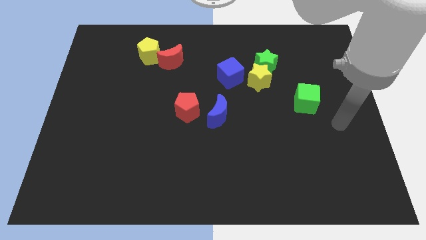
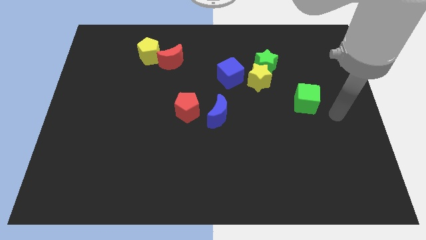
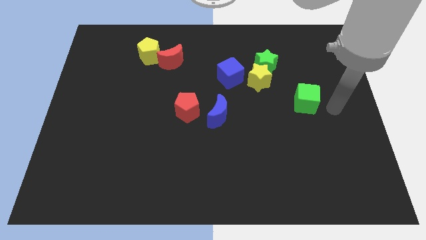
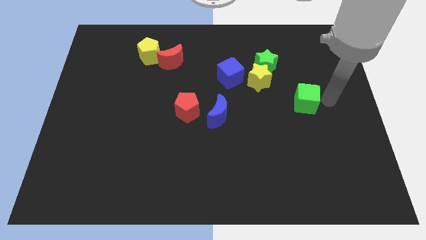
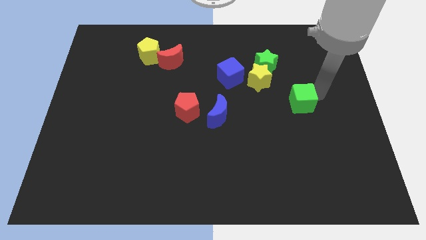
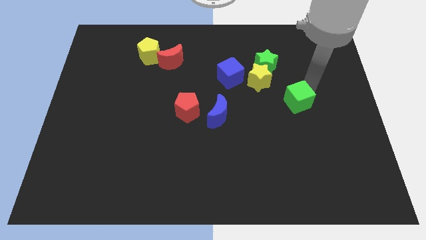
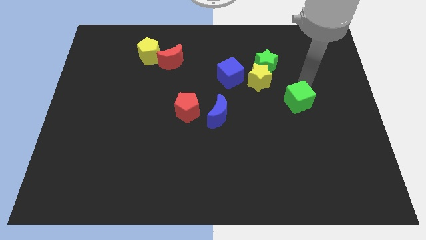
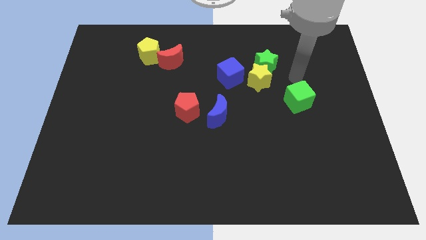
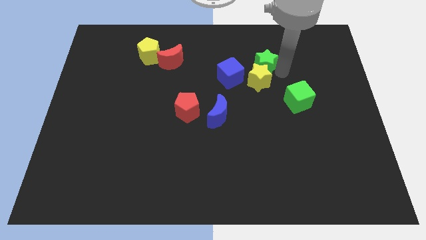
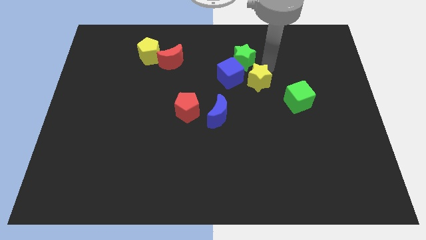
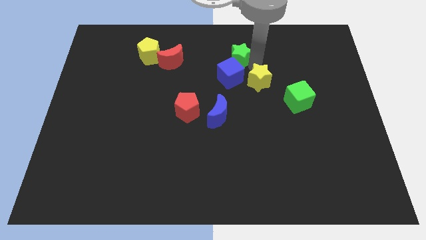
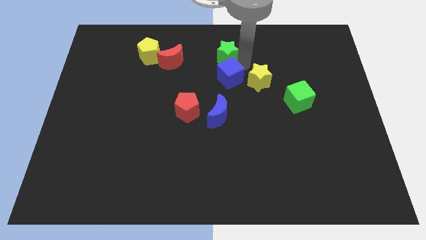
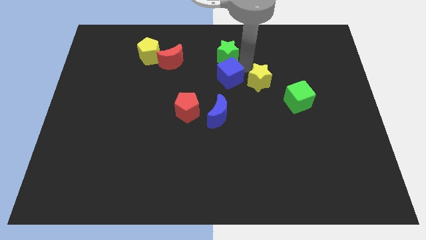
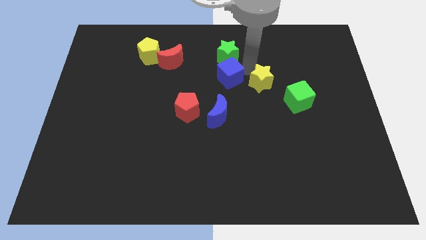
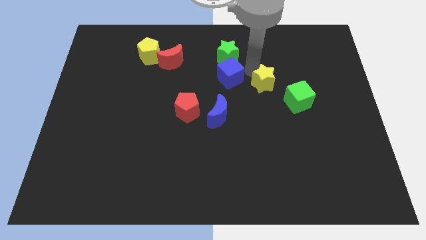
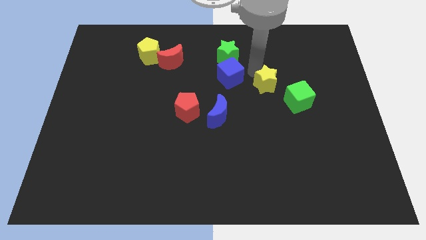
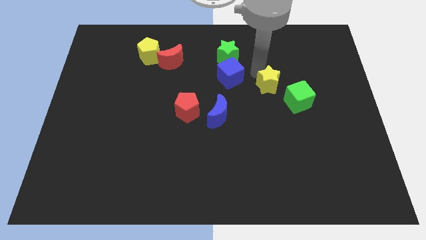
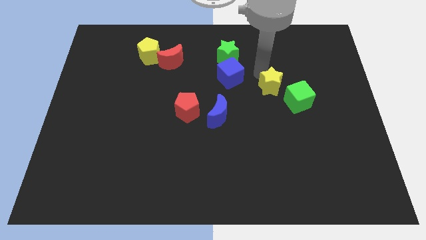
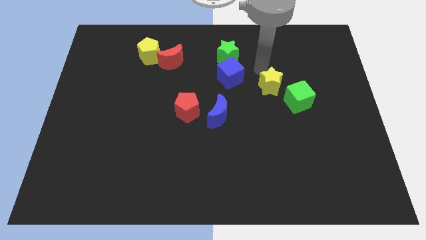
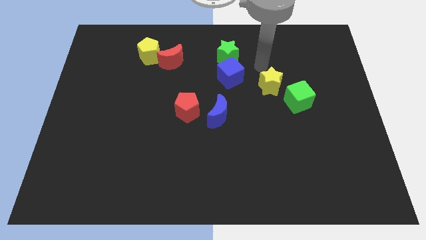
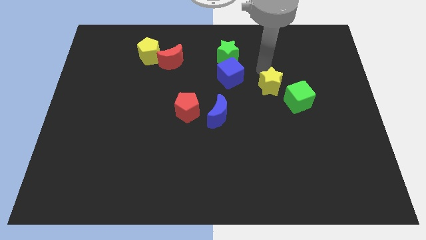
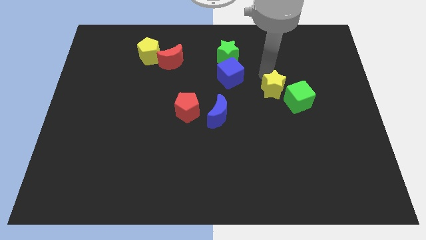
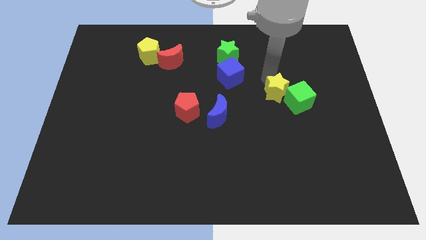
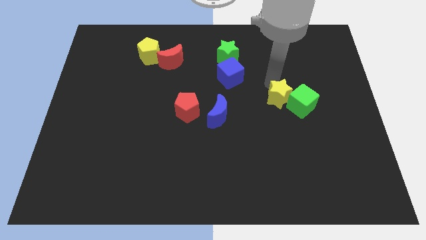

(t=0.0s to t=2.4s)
slide the yellow star a little bit diagonally downwards and right

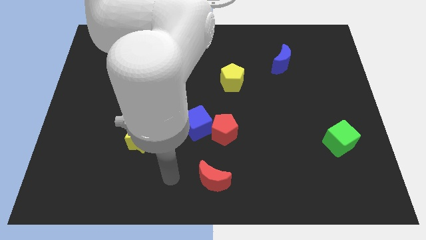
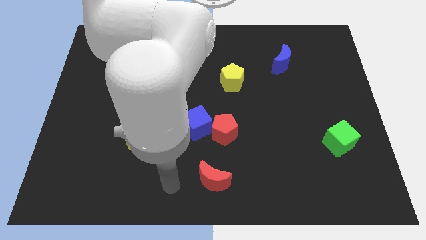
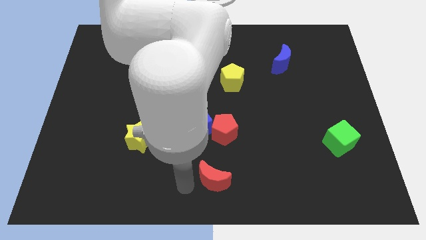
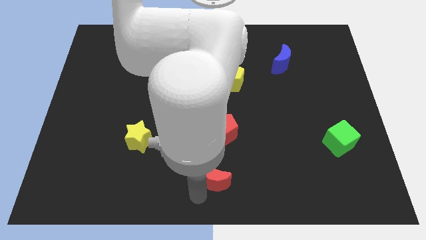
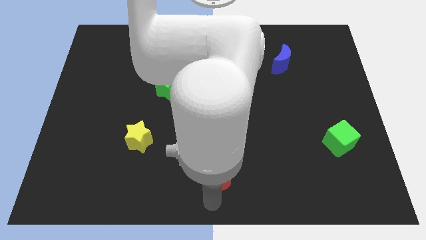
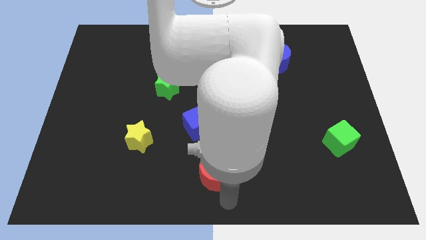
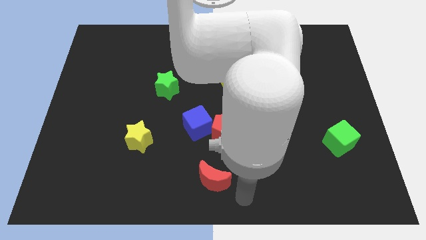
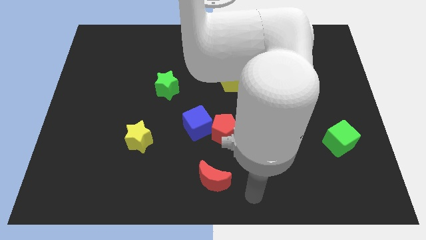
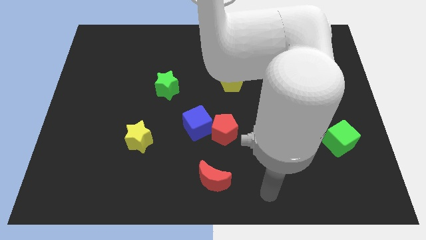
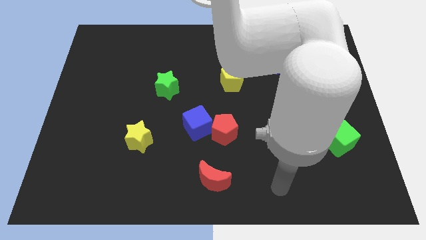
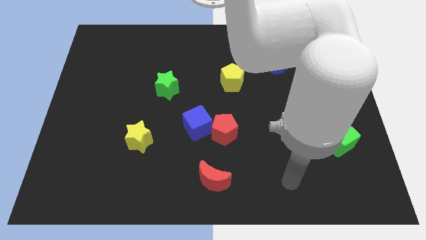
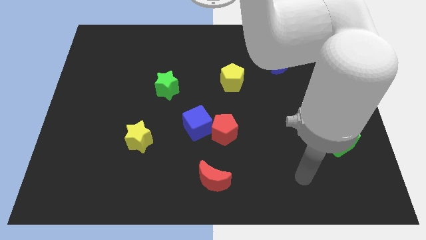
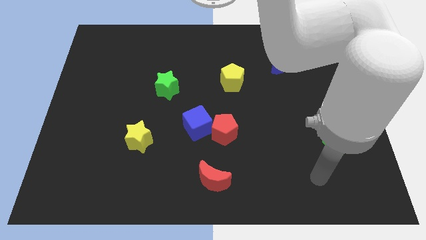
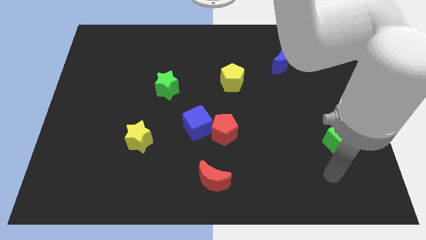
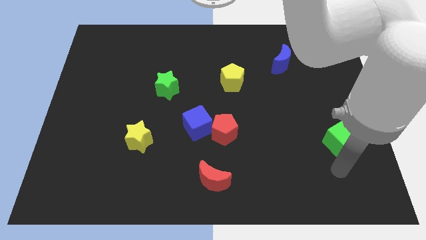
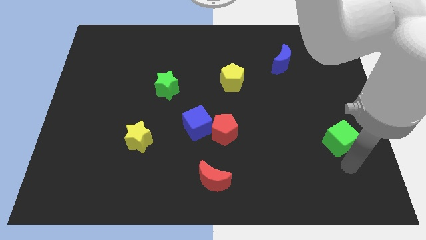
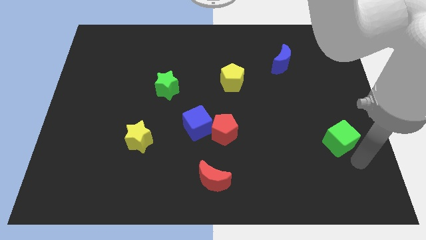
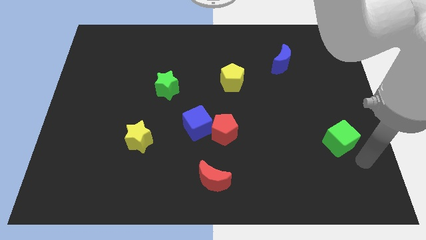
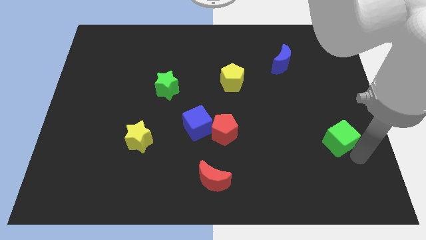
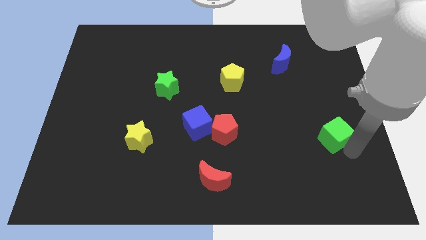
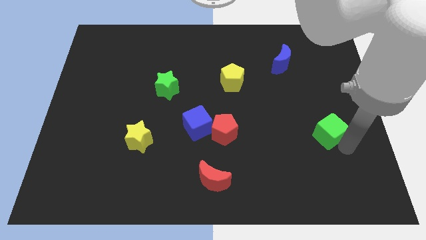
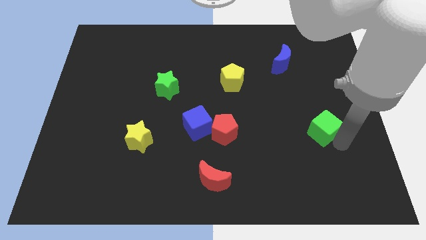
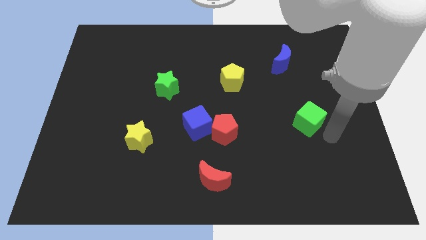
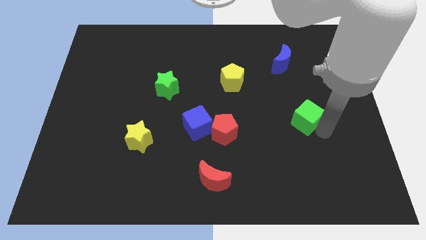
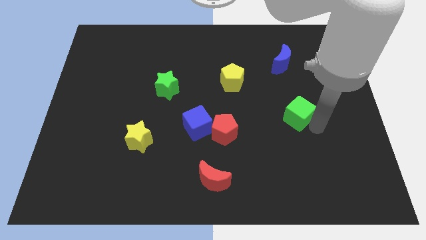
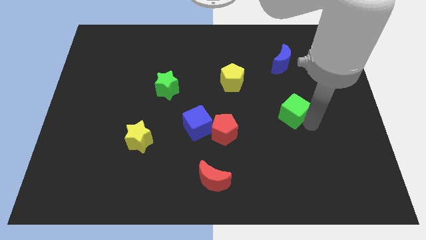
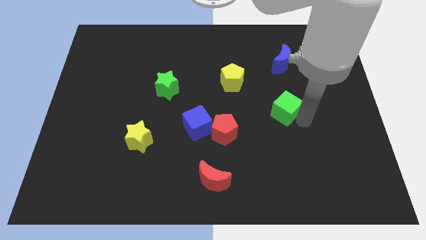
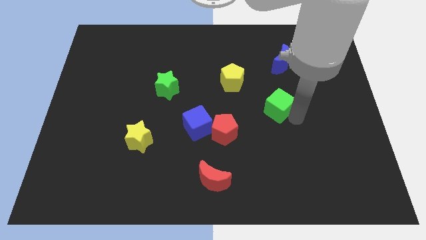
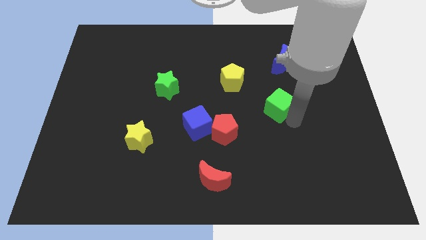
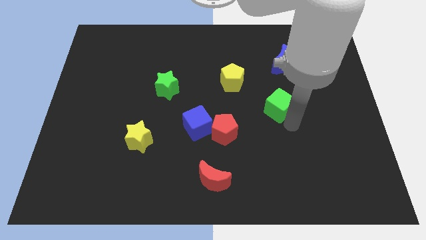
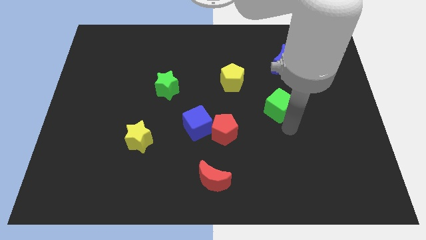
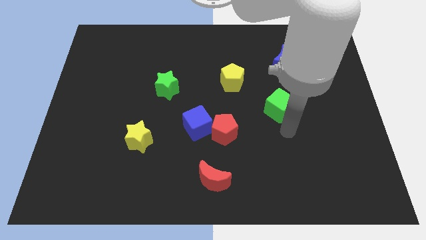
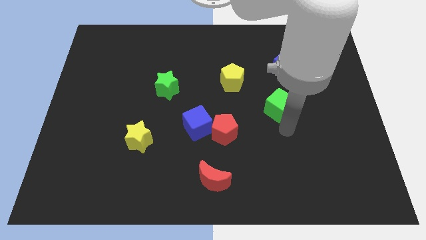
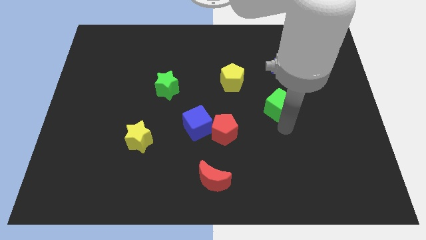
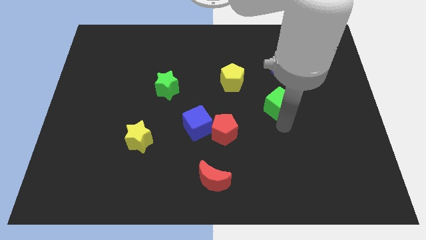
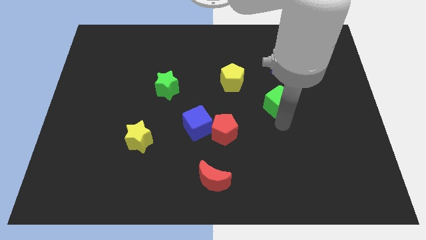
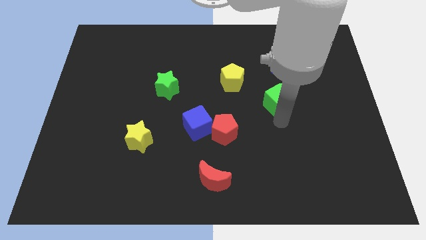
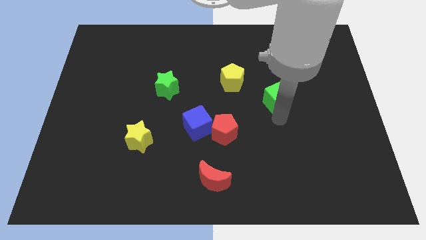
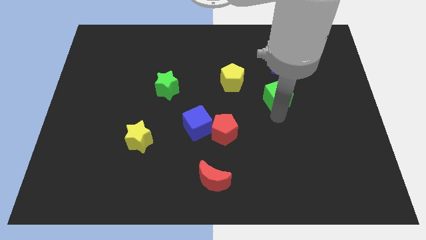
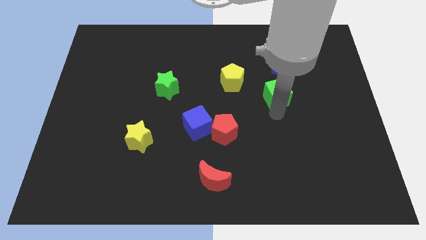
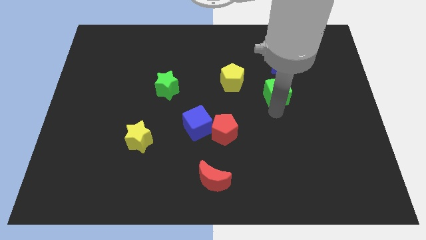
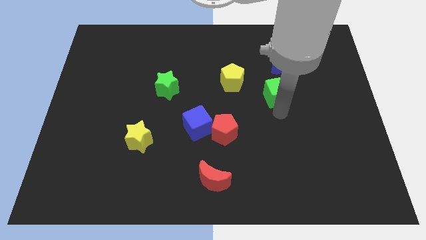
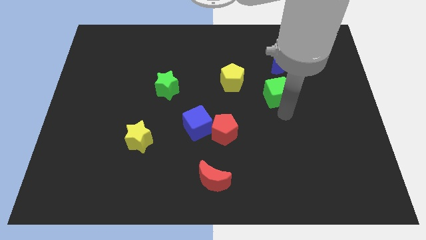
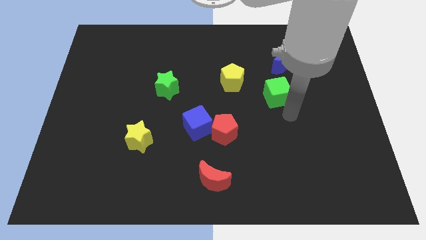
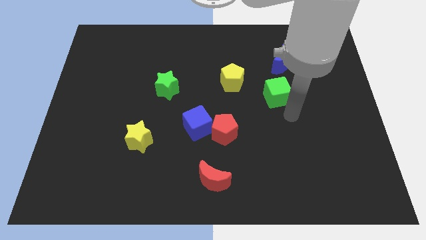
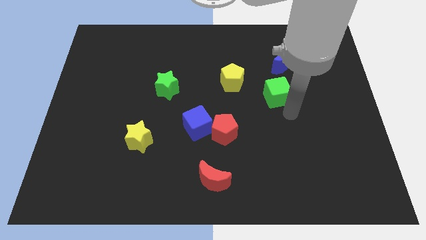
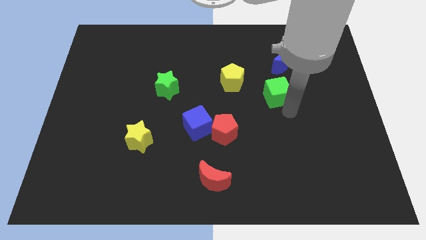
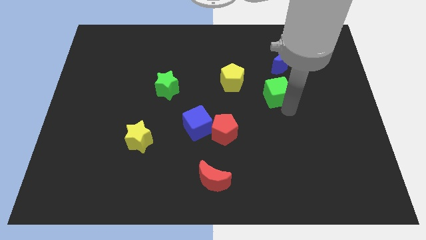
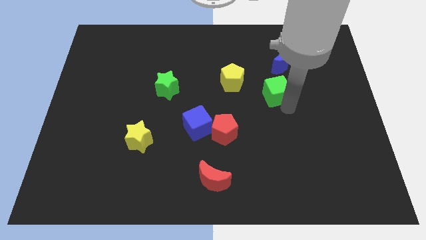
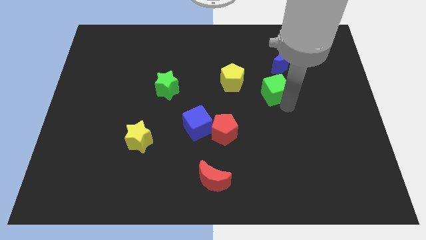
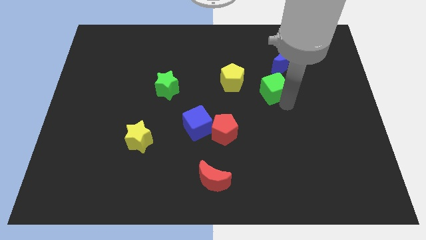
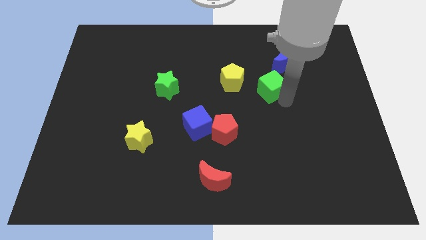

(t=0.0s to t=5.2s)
move the green cube upwards and to the left
